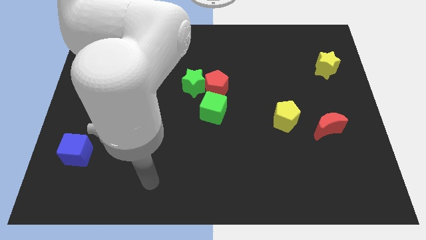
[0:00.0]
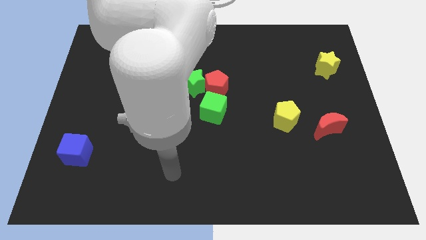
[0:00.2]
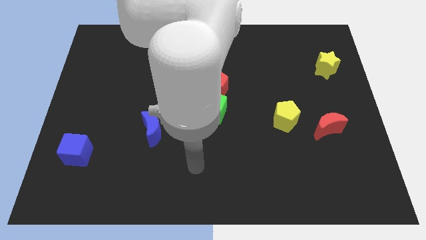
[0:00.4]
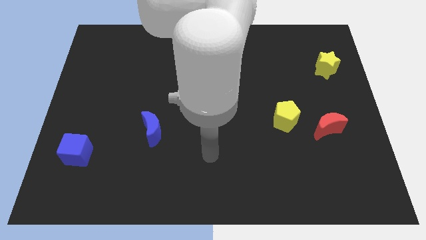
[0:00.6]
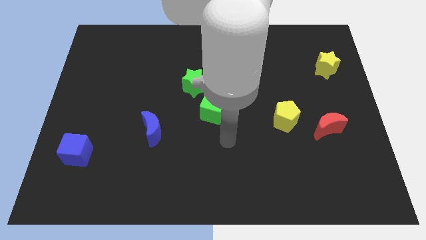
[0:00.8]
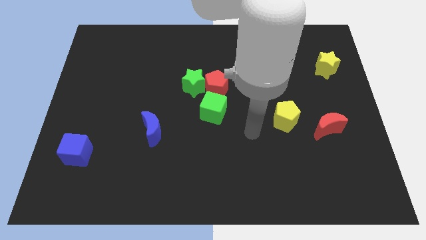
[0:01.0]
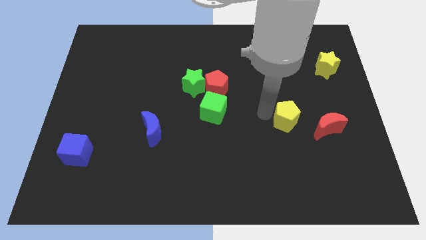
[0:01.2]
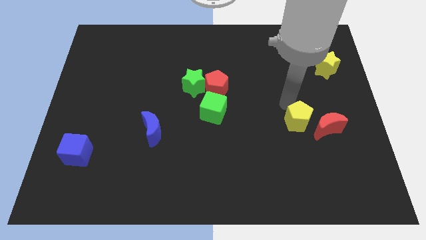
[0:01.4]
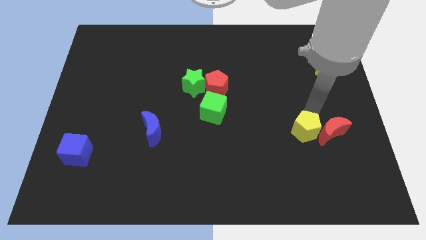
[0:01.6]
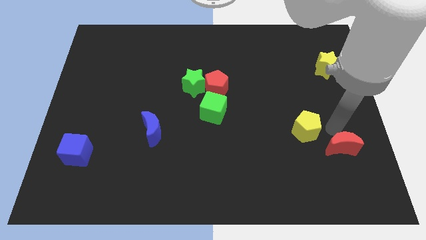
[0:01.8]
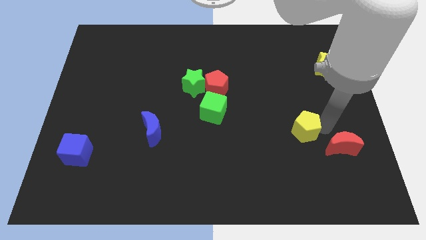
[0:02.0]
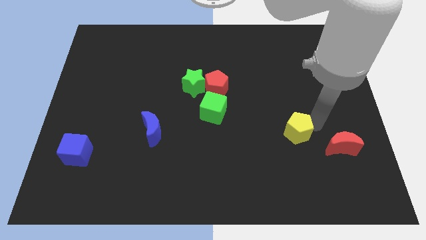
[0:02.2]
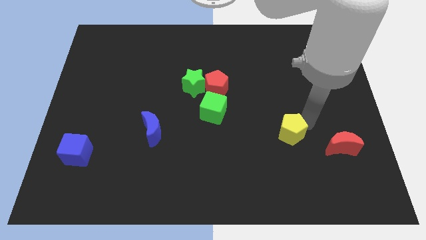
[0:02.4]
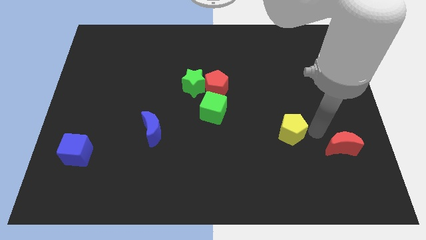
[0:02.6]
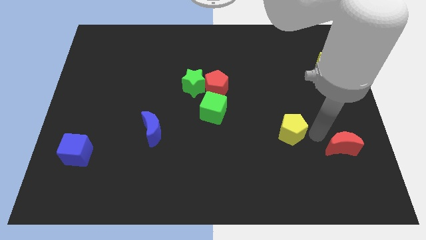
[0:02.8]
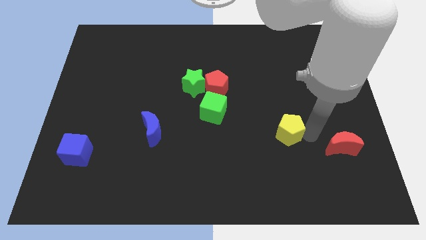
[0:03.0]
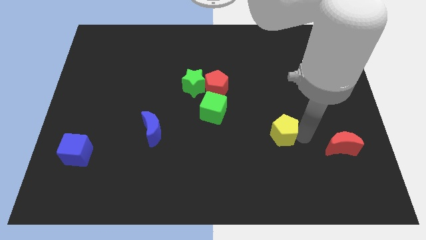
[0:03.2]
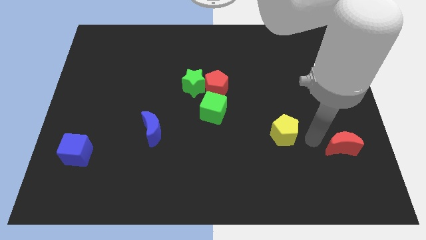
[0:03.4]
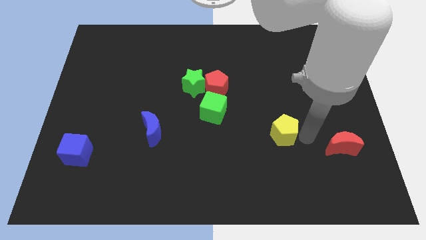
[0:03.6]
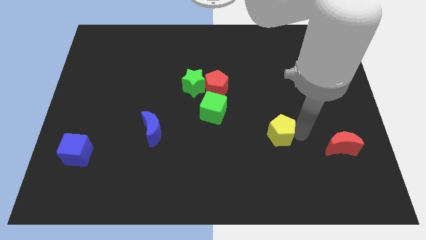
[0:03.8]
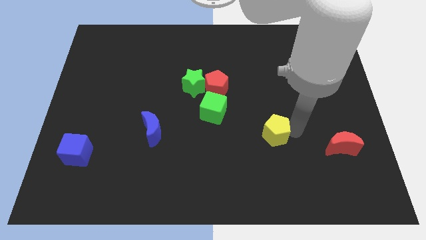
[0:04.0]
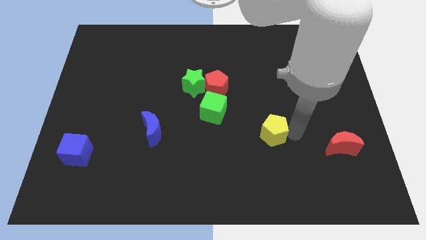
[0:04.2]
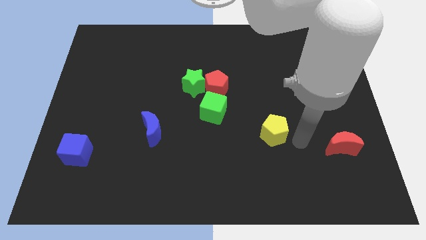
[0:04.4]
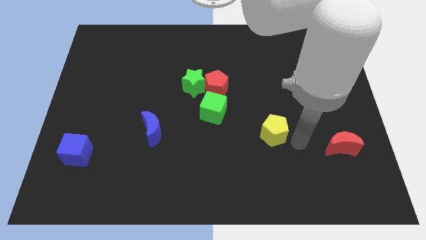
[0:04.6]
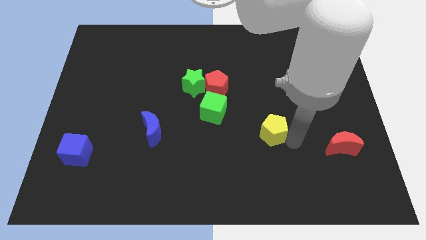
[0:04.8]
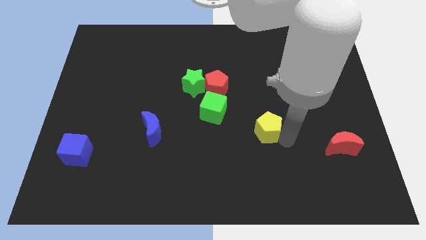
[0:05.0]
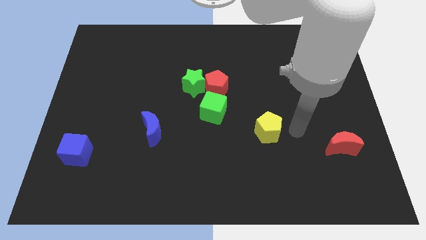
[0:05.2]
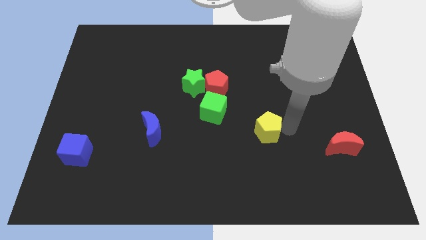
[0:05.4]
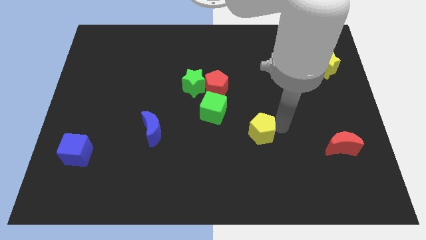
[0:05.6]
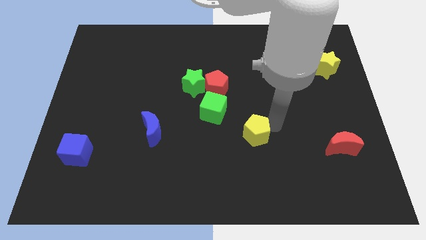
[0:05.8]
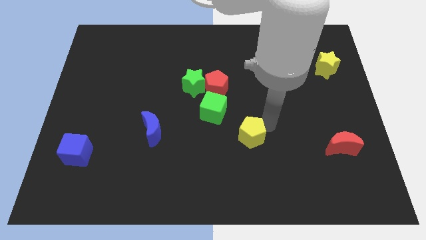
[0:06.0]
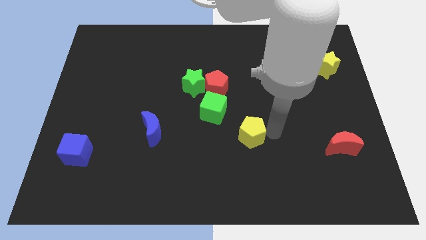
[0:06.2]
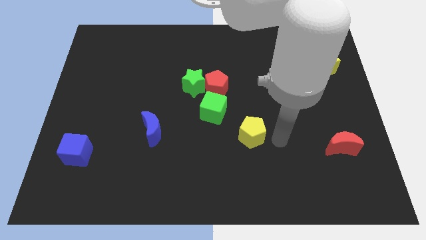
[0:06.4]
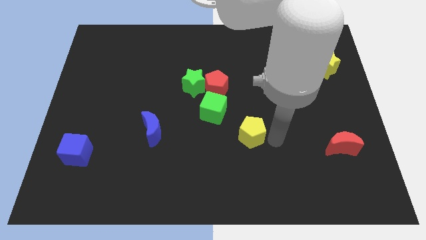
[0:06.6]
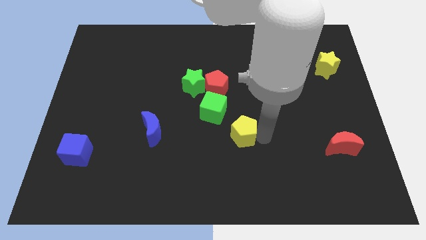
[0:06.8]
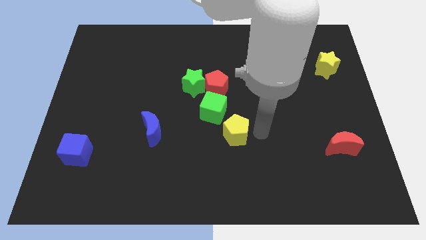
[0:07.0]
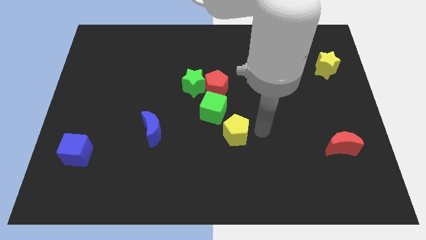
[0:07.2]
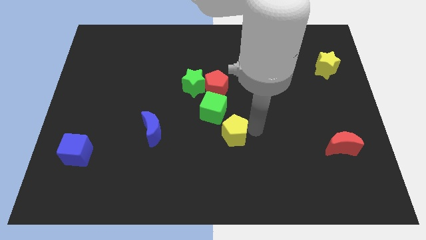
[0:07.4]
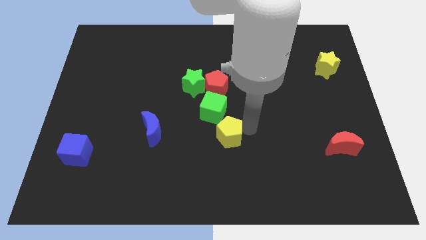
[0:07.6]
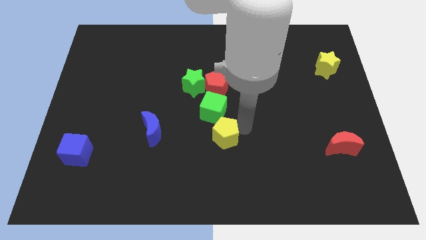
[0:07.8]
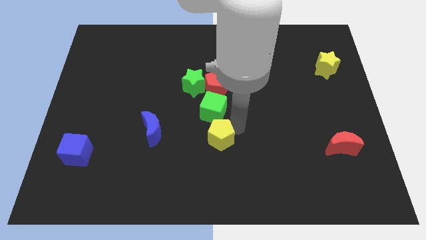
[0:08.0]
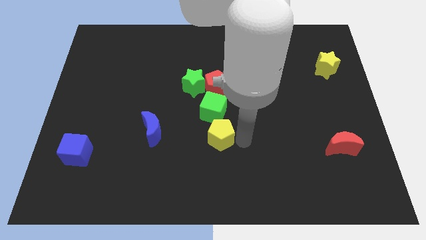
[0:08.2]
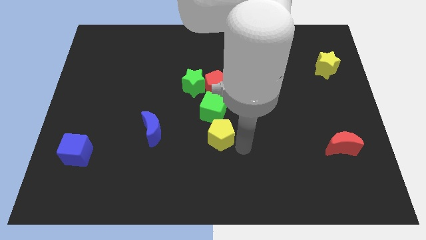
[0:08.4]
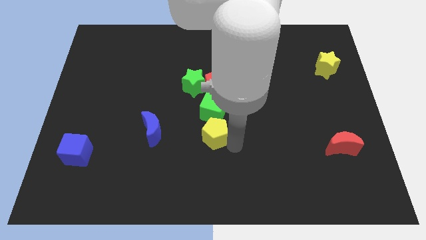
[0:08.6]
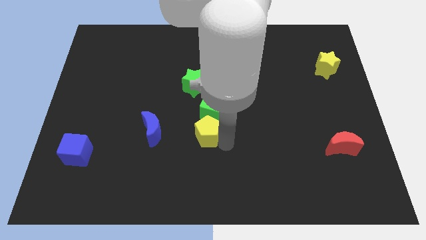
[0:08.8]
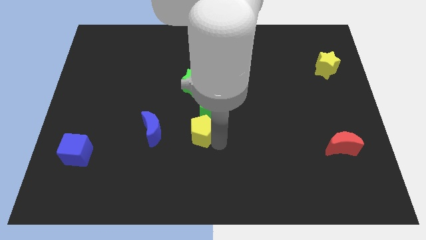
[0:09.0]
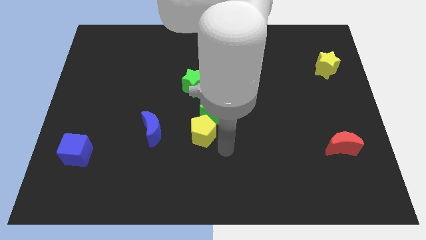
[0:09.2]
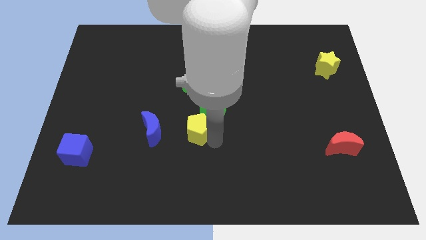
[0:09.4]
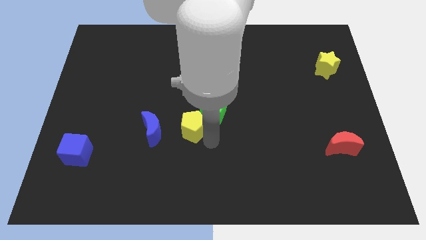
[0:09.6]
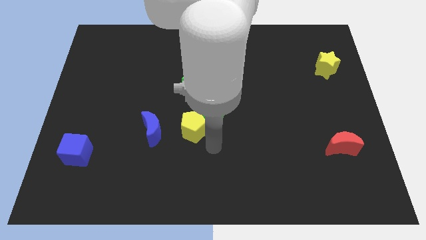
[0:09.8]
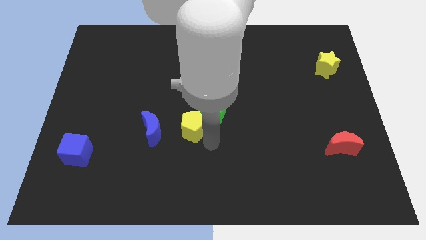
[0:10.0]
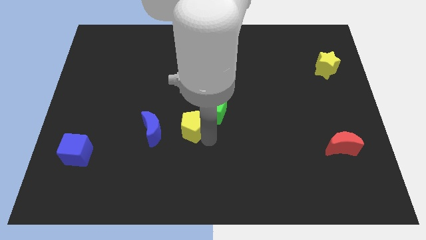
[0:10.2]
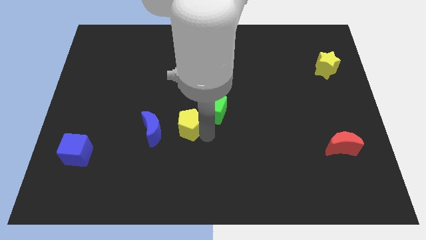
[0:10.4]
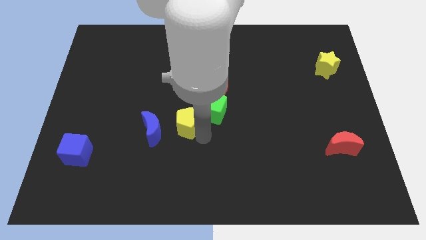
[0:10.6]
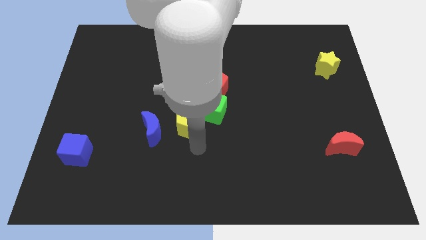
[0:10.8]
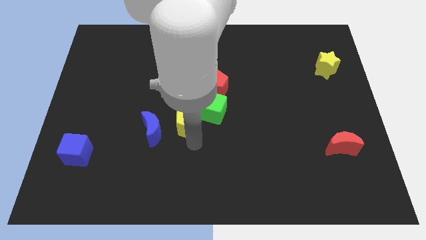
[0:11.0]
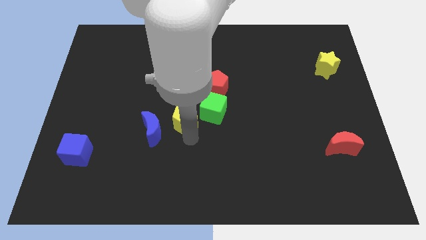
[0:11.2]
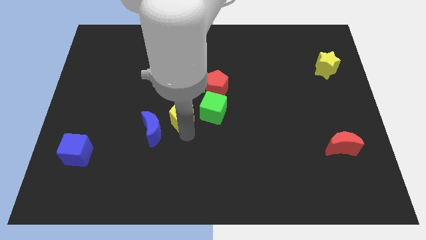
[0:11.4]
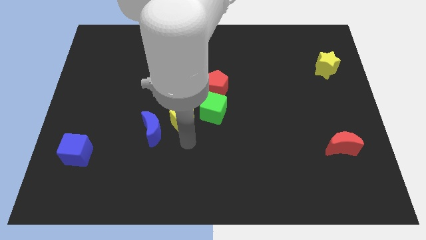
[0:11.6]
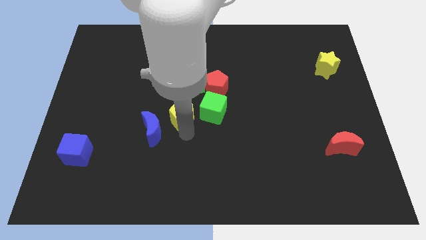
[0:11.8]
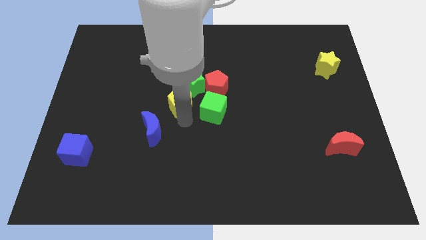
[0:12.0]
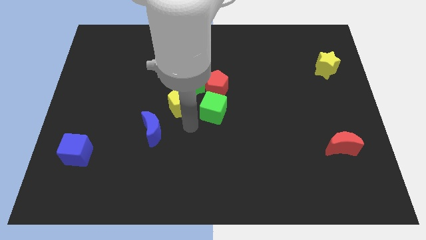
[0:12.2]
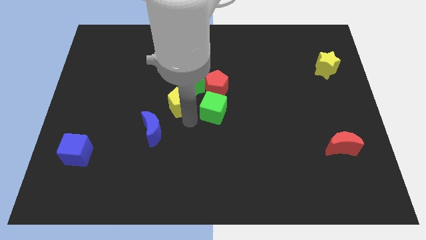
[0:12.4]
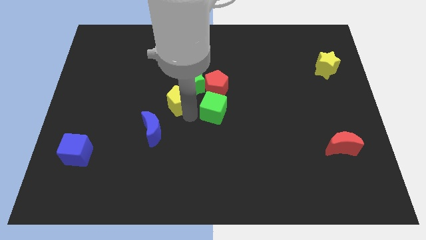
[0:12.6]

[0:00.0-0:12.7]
push the yellow pentagon left of the red pentagon

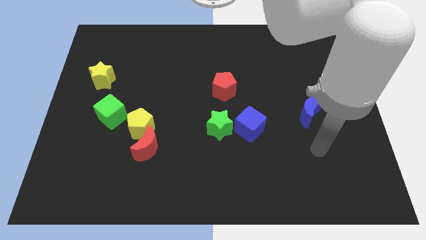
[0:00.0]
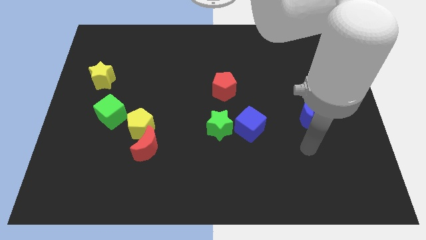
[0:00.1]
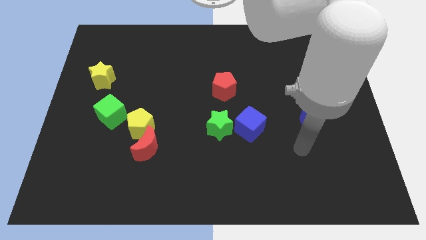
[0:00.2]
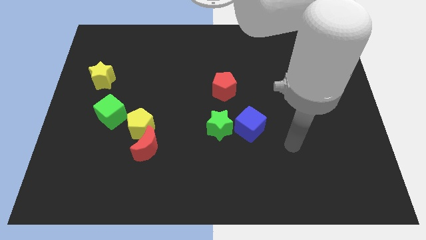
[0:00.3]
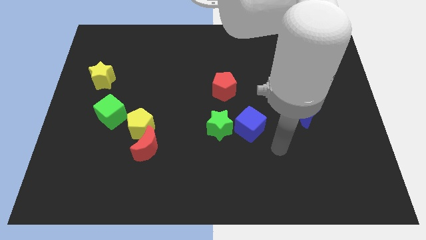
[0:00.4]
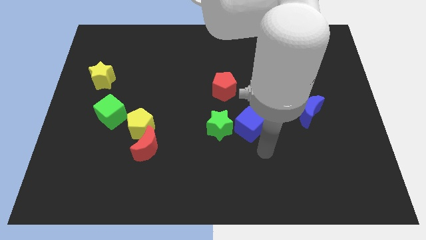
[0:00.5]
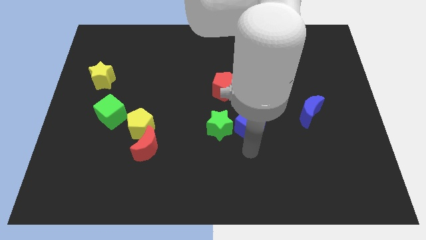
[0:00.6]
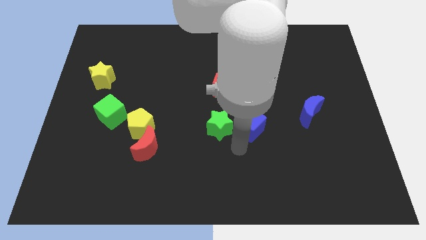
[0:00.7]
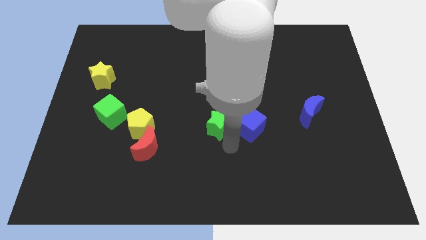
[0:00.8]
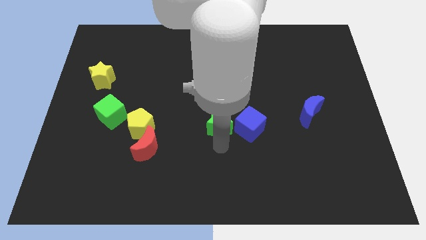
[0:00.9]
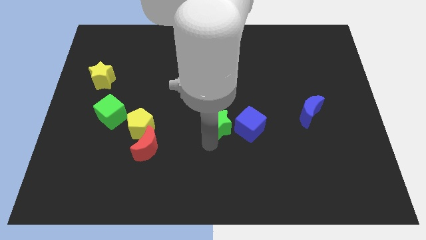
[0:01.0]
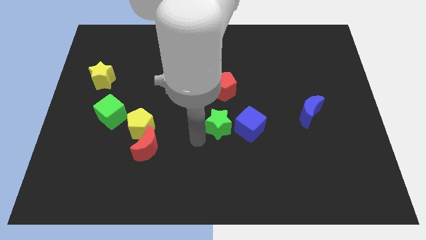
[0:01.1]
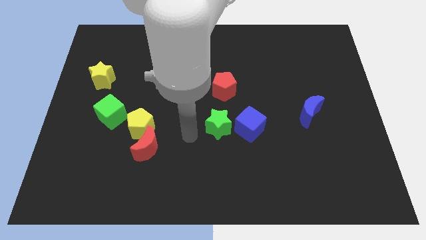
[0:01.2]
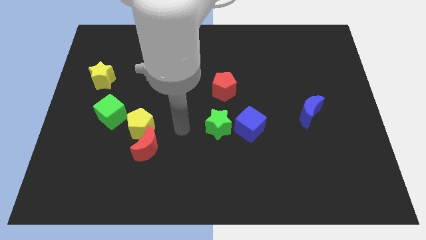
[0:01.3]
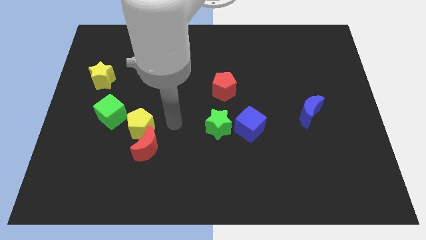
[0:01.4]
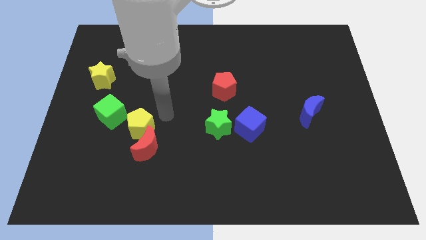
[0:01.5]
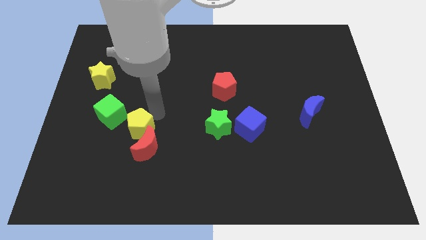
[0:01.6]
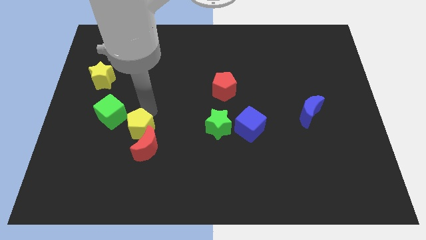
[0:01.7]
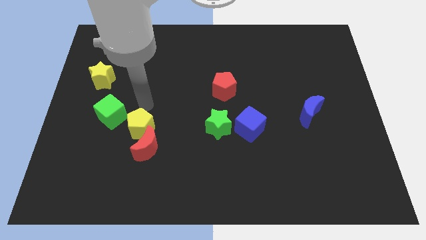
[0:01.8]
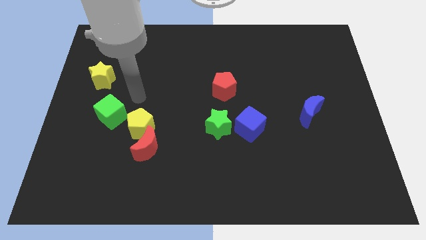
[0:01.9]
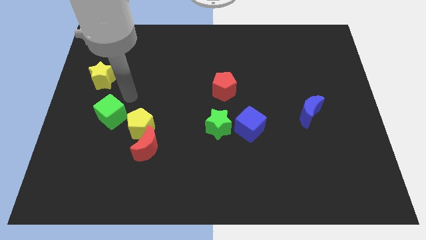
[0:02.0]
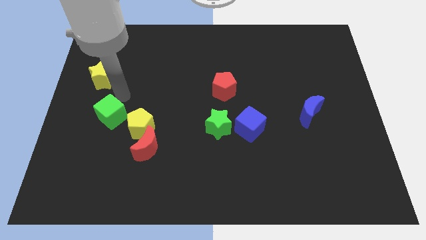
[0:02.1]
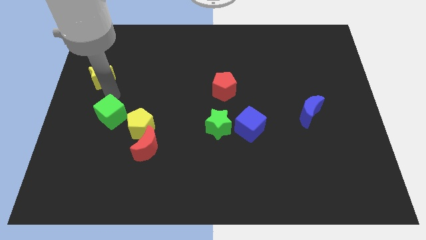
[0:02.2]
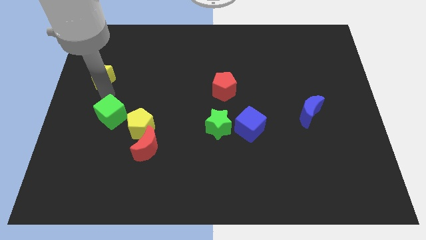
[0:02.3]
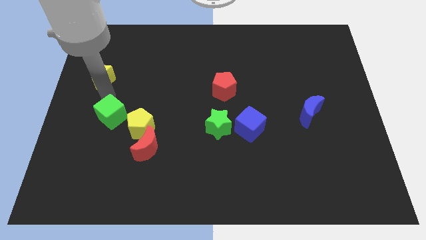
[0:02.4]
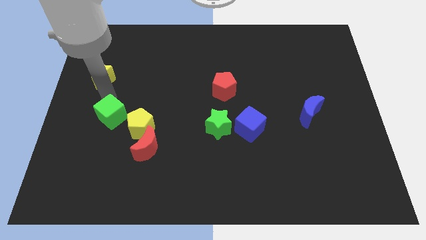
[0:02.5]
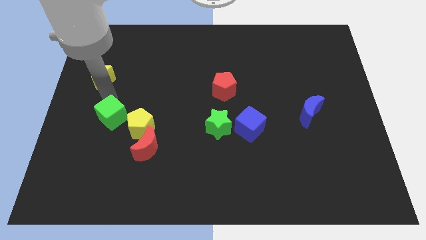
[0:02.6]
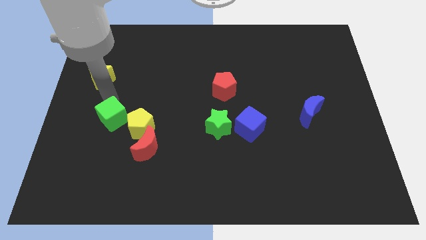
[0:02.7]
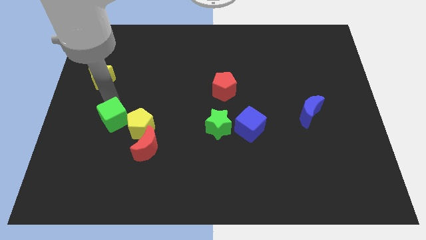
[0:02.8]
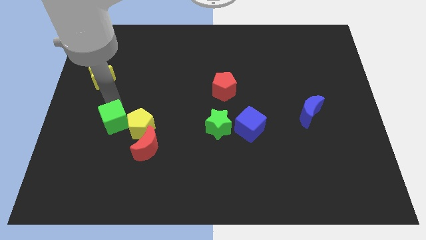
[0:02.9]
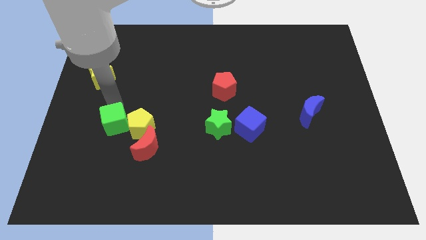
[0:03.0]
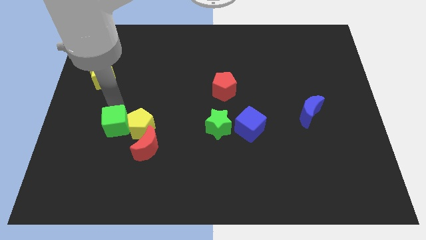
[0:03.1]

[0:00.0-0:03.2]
put the green cube to the bottom left side of the yellow pentagon
